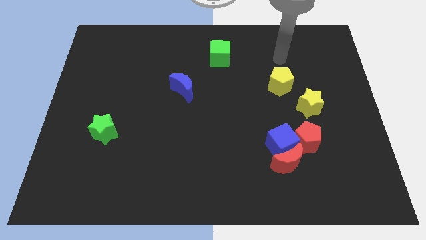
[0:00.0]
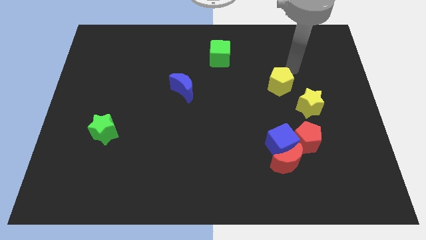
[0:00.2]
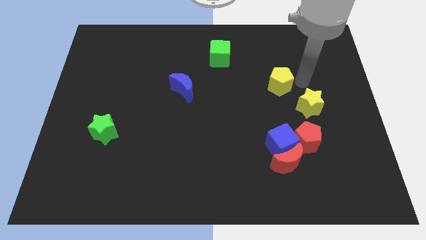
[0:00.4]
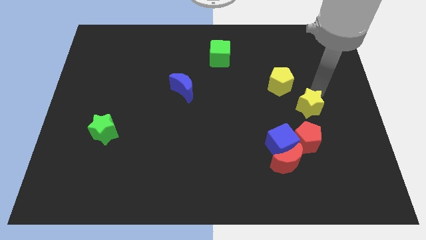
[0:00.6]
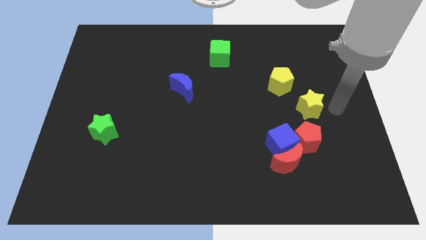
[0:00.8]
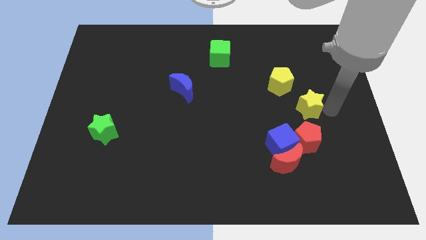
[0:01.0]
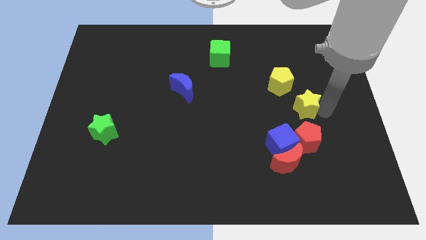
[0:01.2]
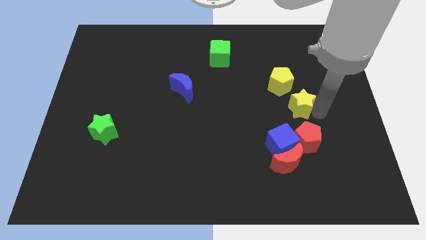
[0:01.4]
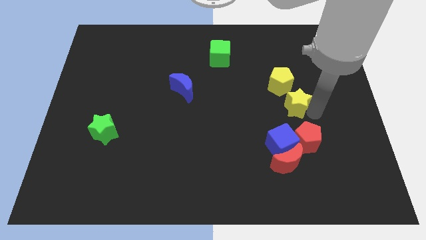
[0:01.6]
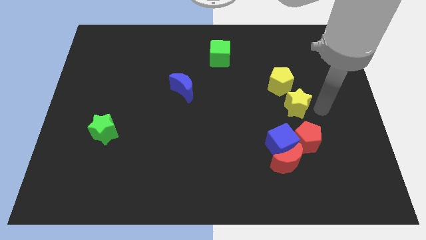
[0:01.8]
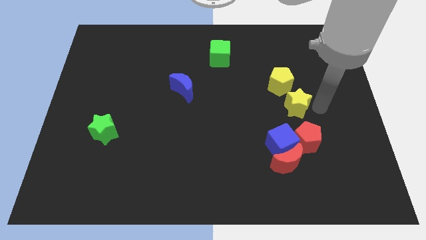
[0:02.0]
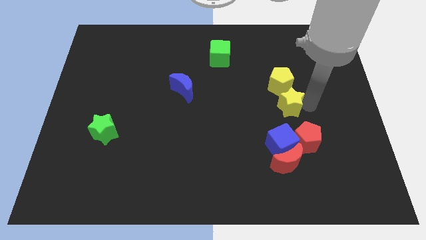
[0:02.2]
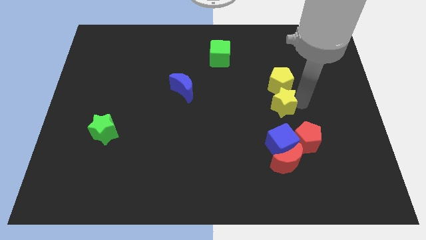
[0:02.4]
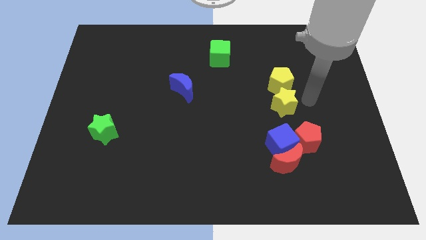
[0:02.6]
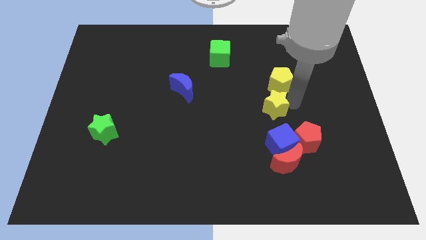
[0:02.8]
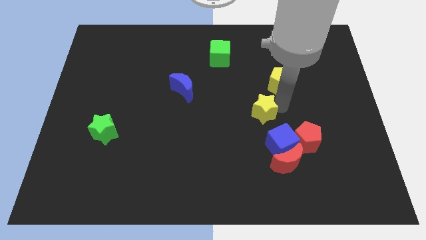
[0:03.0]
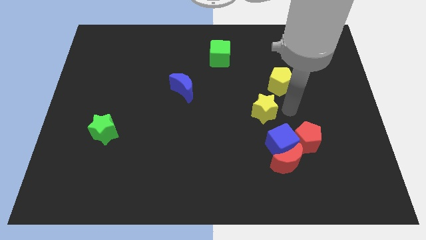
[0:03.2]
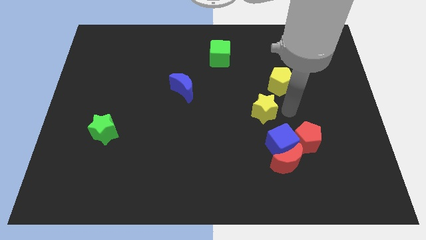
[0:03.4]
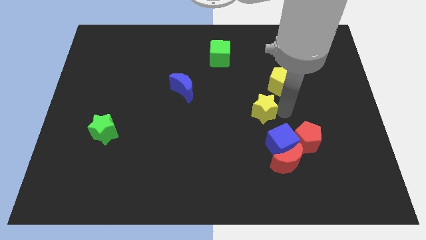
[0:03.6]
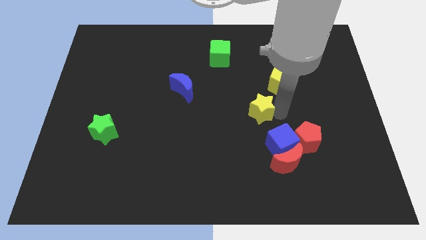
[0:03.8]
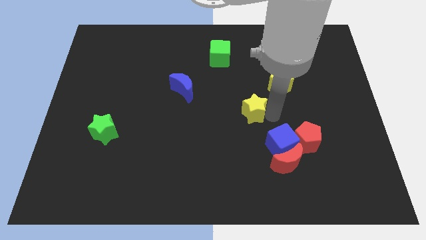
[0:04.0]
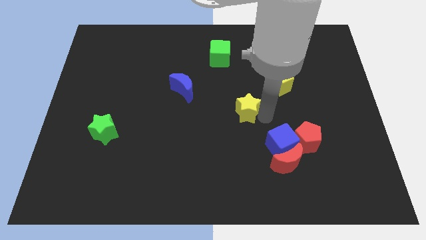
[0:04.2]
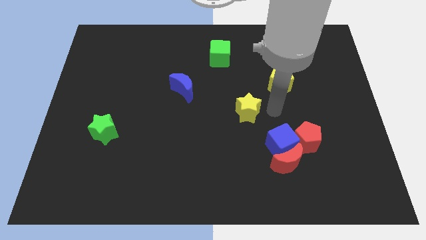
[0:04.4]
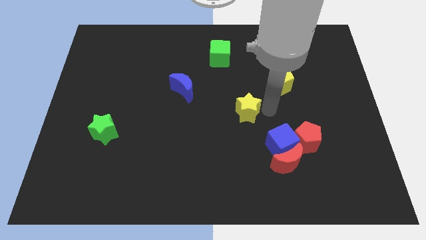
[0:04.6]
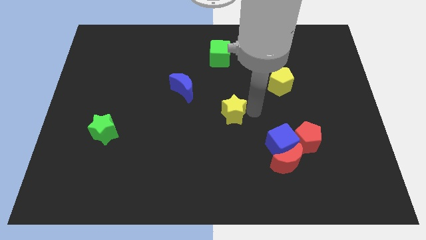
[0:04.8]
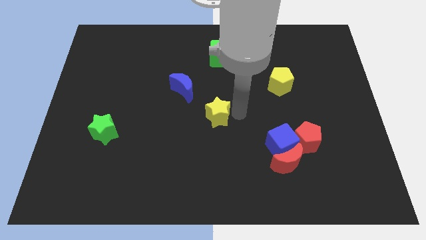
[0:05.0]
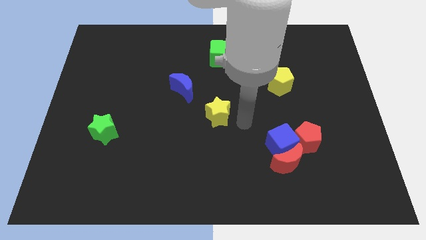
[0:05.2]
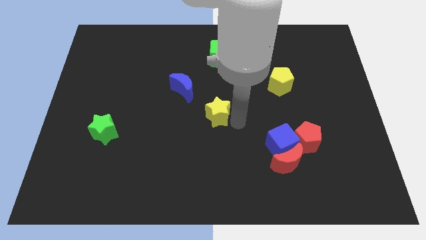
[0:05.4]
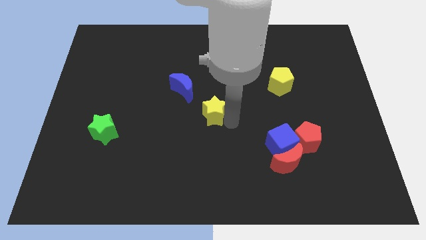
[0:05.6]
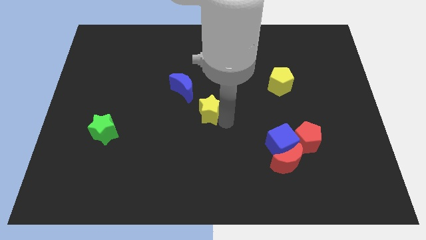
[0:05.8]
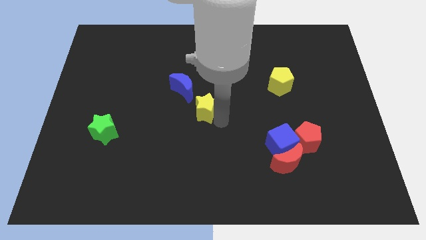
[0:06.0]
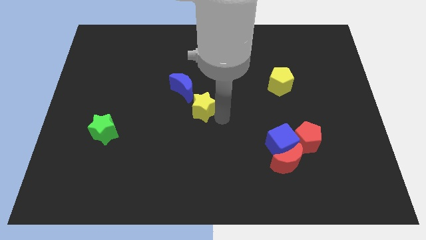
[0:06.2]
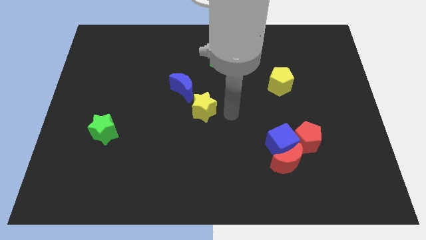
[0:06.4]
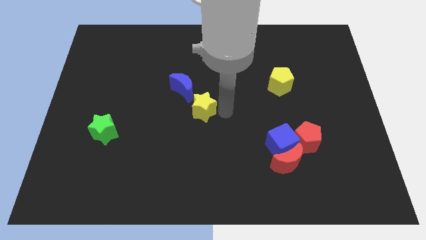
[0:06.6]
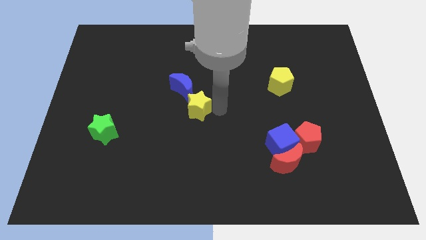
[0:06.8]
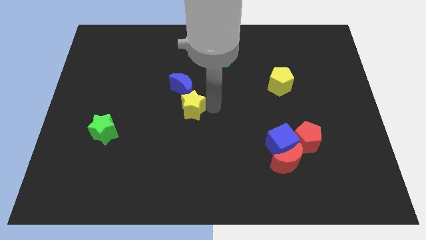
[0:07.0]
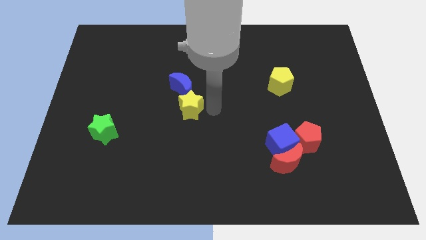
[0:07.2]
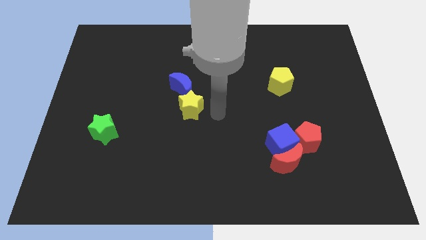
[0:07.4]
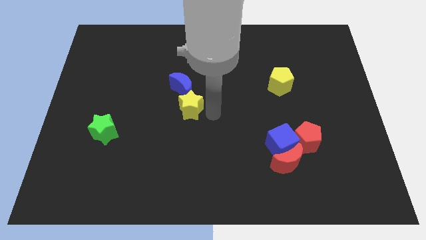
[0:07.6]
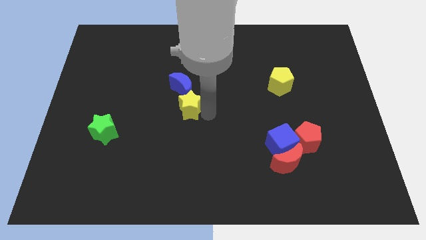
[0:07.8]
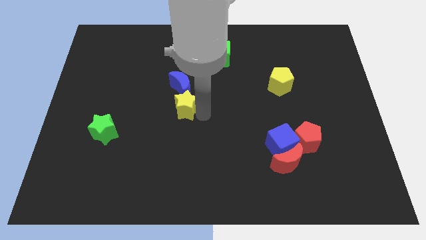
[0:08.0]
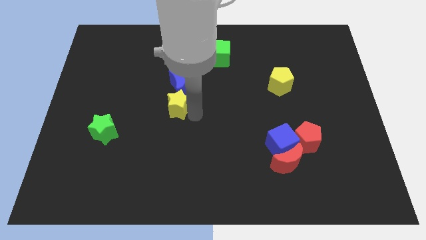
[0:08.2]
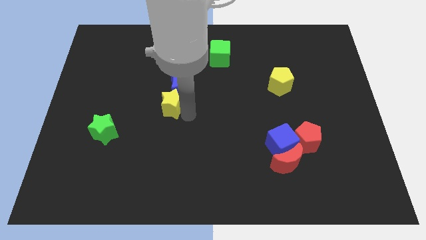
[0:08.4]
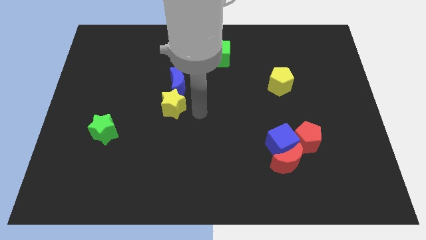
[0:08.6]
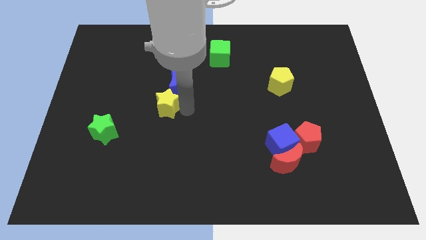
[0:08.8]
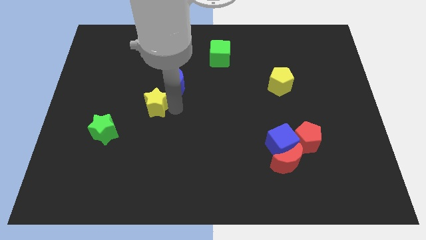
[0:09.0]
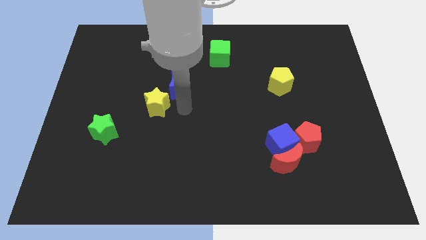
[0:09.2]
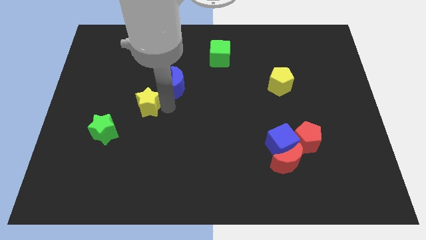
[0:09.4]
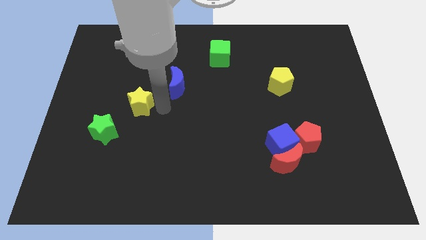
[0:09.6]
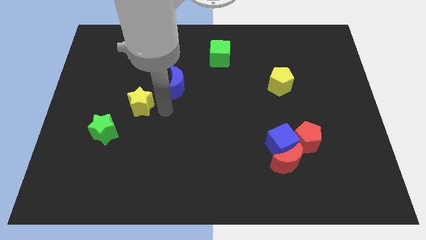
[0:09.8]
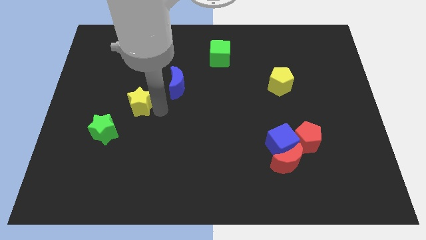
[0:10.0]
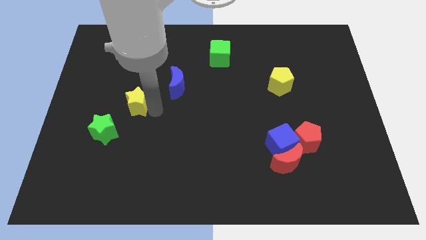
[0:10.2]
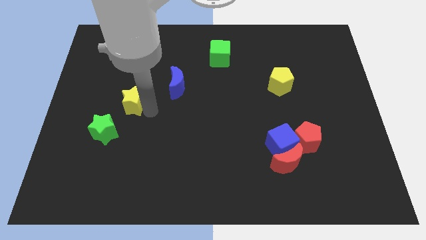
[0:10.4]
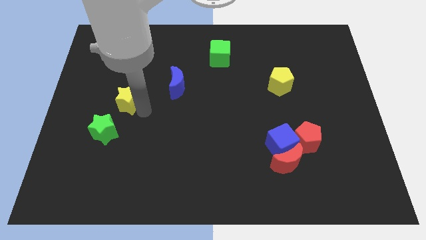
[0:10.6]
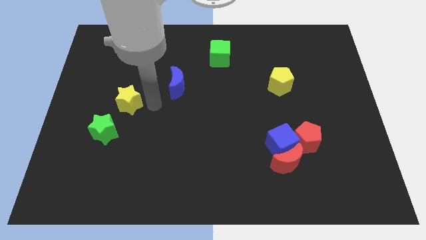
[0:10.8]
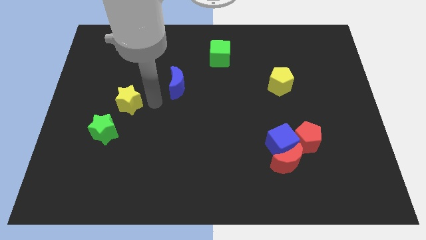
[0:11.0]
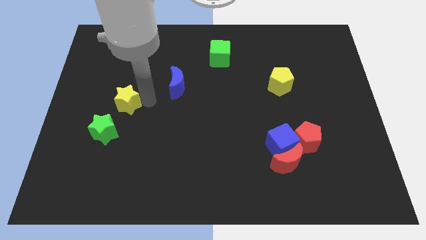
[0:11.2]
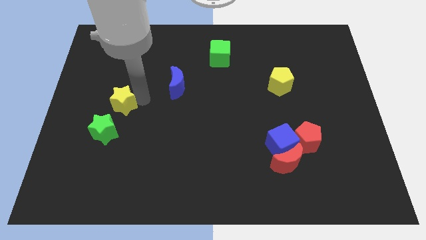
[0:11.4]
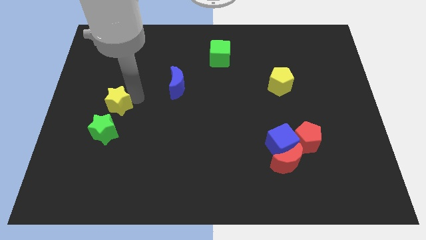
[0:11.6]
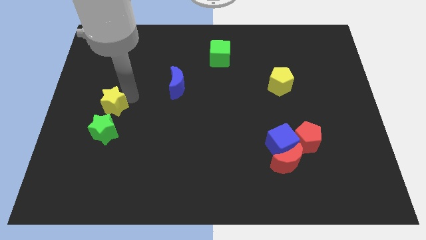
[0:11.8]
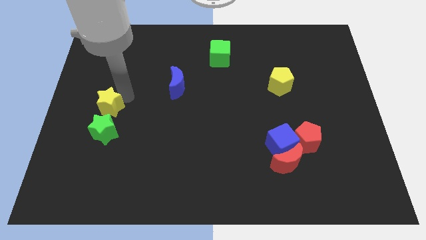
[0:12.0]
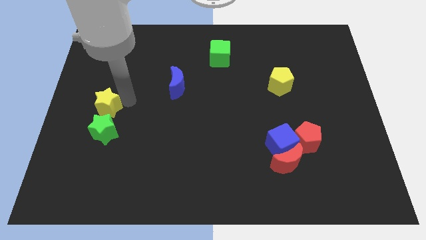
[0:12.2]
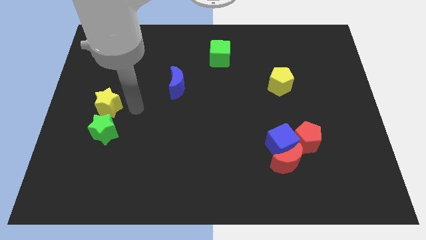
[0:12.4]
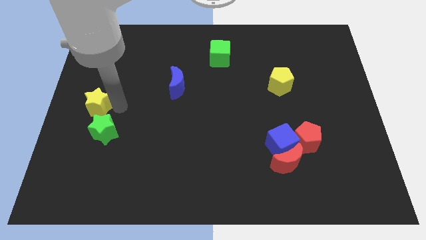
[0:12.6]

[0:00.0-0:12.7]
put the yellow star to the center left

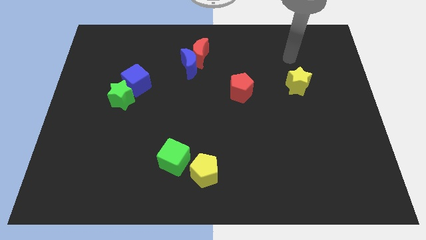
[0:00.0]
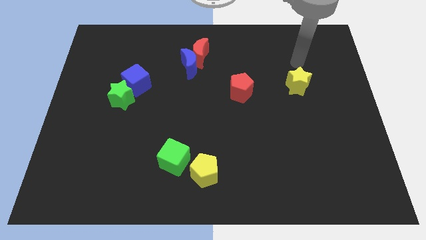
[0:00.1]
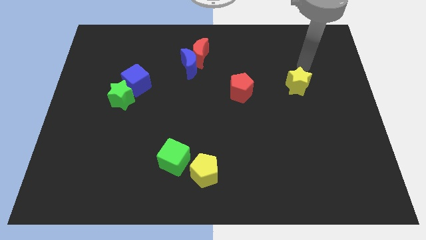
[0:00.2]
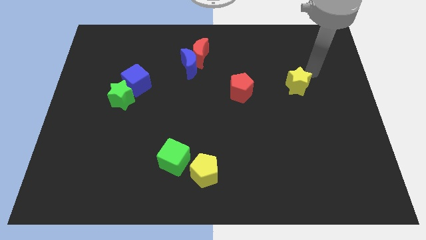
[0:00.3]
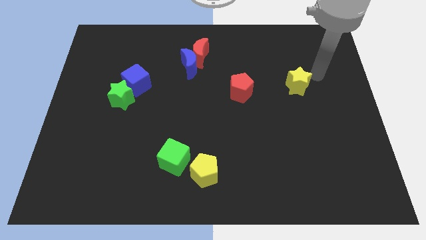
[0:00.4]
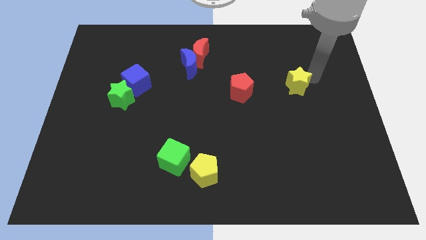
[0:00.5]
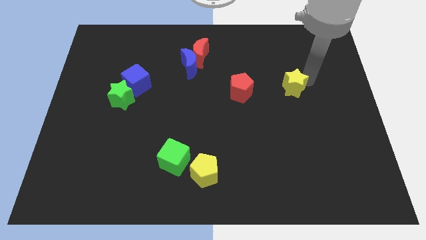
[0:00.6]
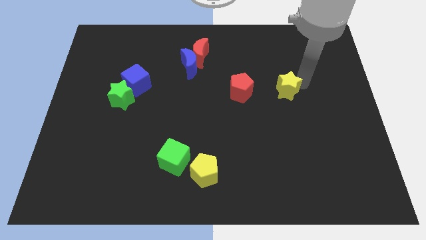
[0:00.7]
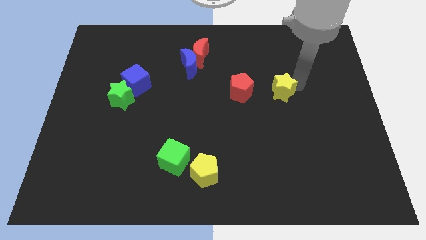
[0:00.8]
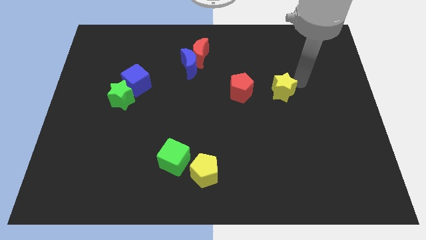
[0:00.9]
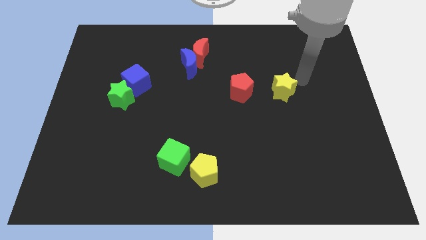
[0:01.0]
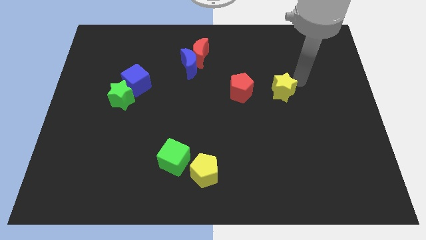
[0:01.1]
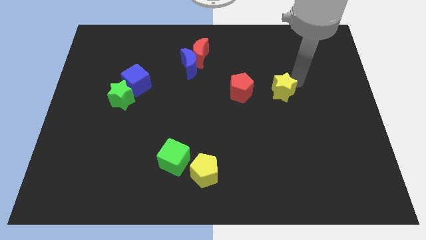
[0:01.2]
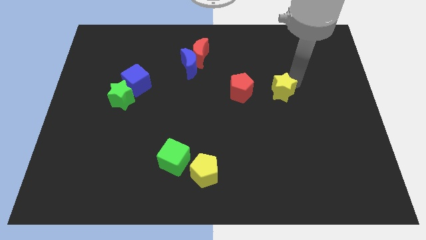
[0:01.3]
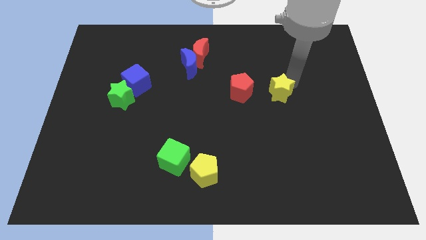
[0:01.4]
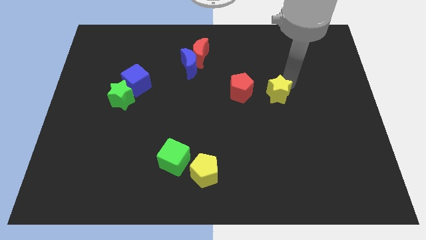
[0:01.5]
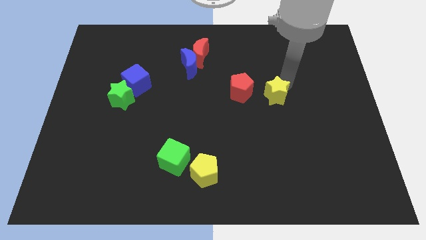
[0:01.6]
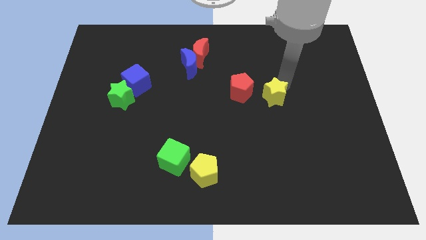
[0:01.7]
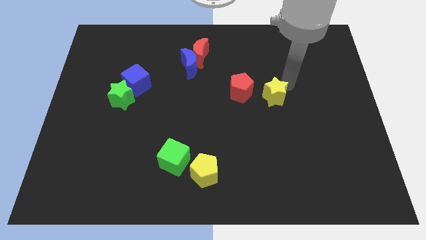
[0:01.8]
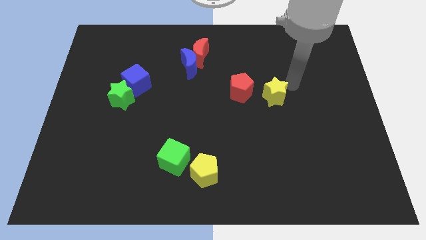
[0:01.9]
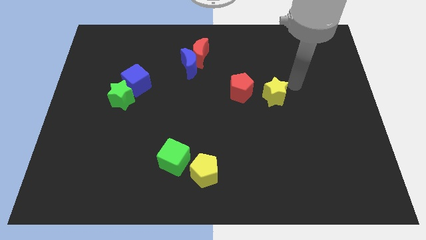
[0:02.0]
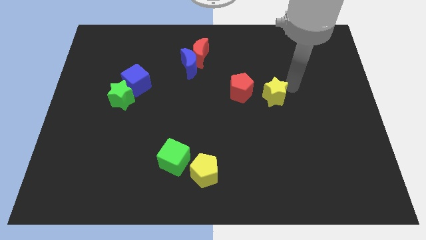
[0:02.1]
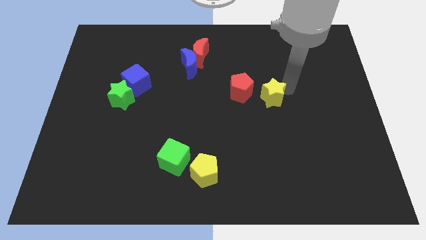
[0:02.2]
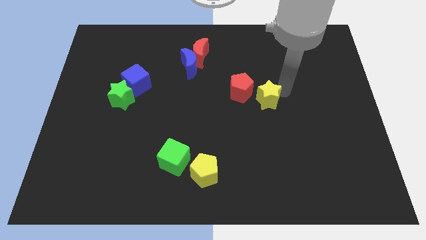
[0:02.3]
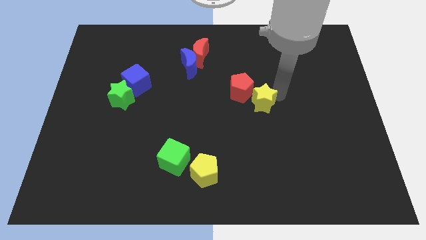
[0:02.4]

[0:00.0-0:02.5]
slide the yellow star to the middle
